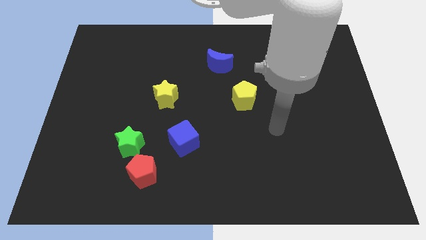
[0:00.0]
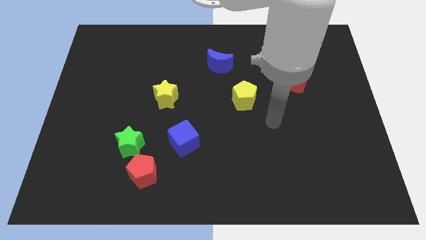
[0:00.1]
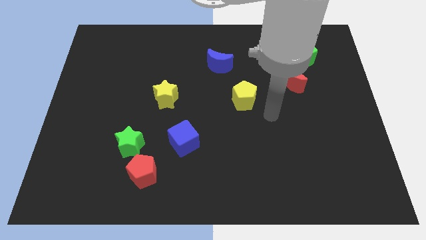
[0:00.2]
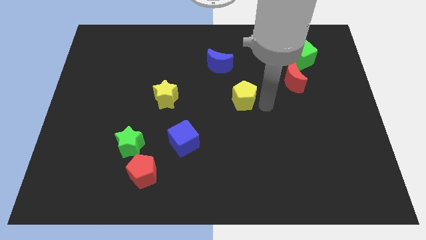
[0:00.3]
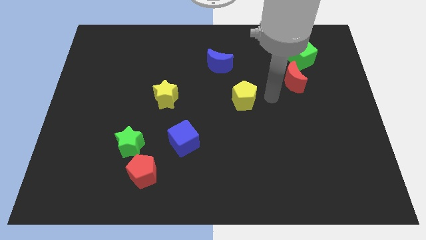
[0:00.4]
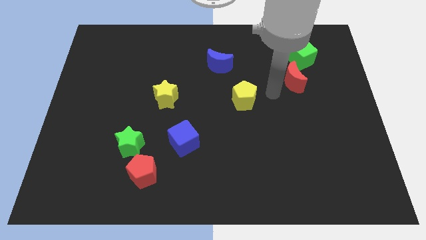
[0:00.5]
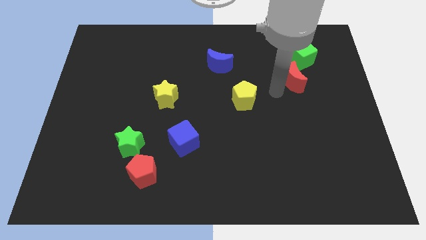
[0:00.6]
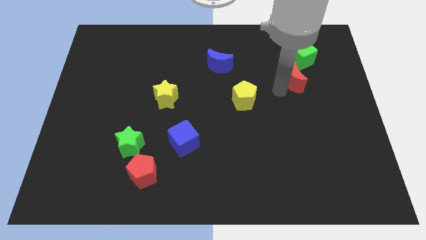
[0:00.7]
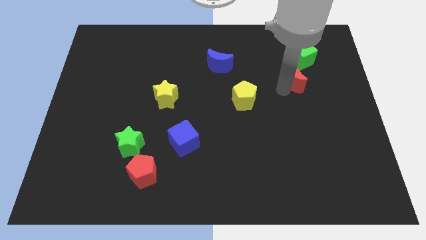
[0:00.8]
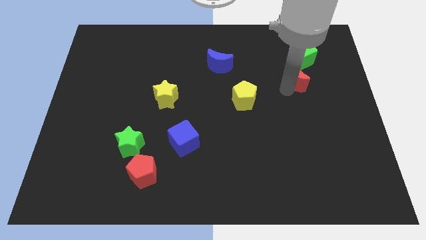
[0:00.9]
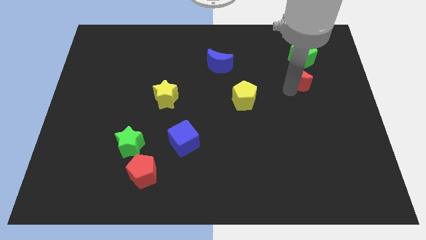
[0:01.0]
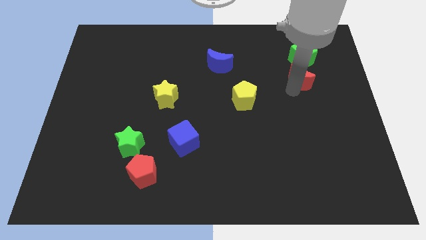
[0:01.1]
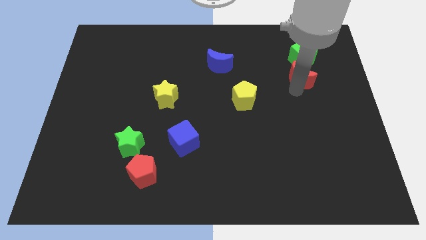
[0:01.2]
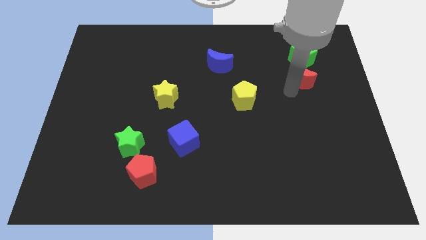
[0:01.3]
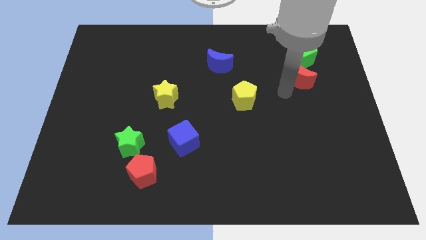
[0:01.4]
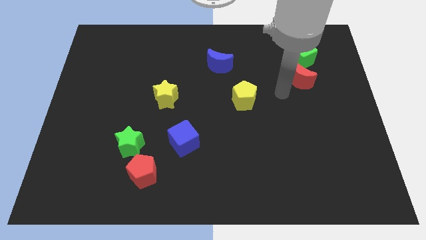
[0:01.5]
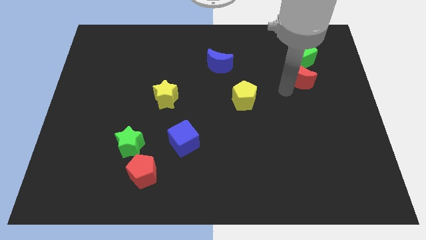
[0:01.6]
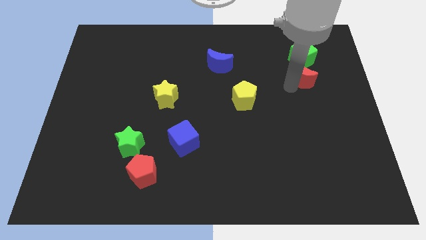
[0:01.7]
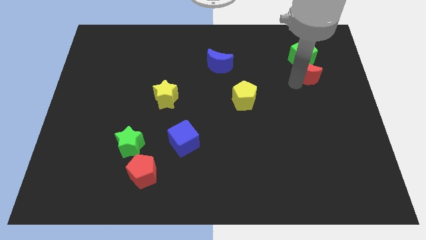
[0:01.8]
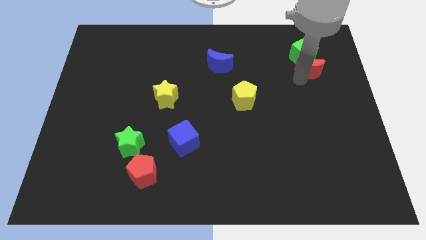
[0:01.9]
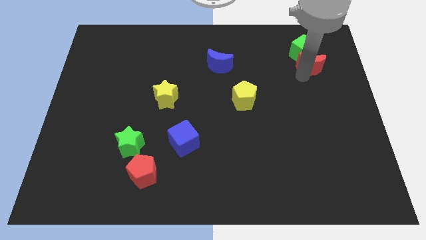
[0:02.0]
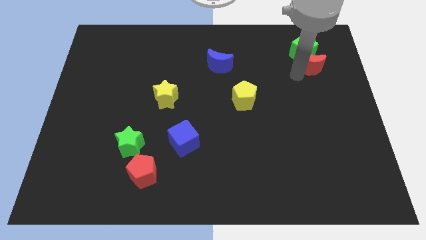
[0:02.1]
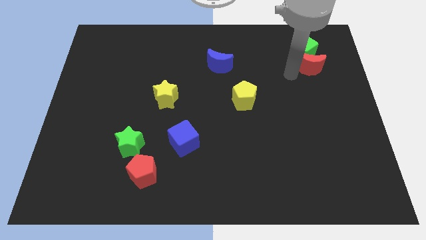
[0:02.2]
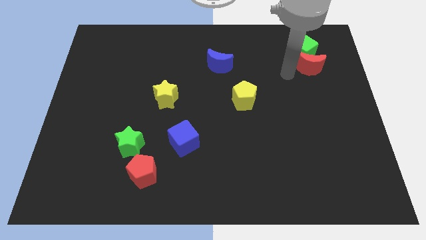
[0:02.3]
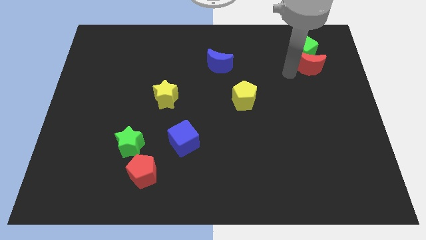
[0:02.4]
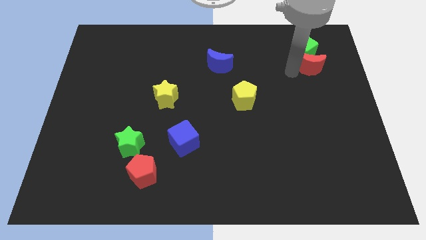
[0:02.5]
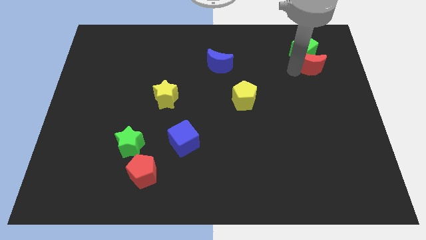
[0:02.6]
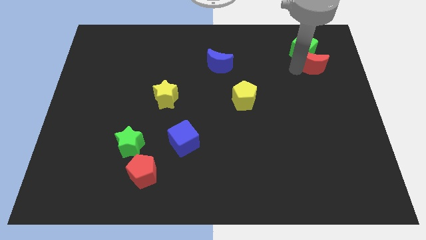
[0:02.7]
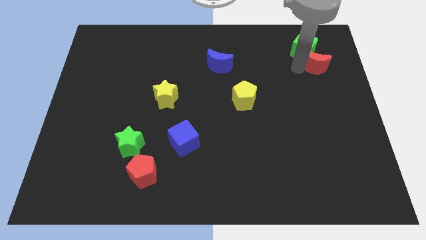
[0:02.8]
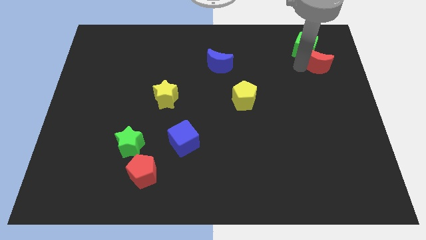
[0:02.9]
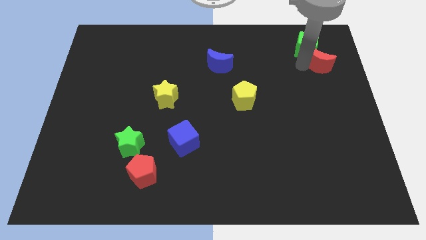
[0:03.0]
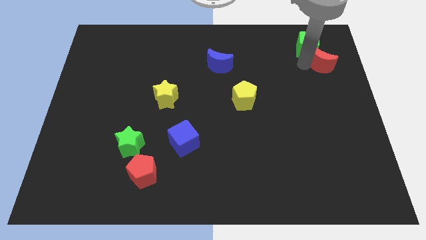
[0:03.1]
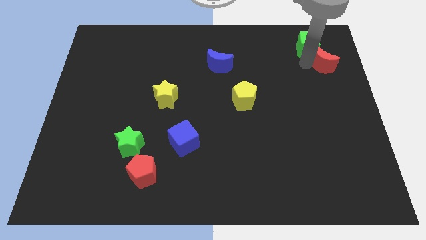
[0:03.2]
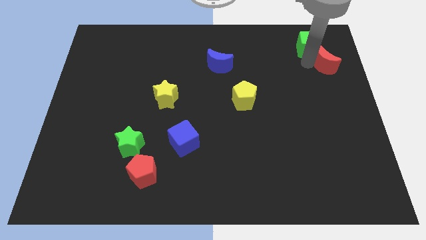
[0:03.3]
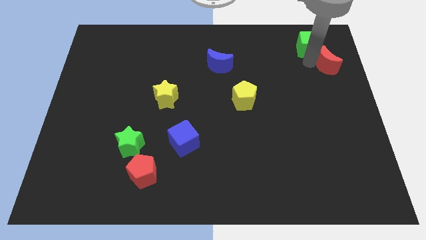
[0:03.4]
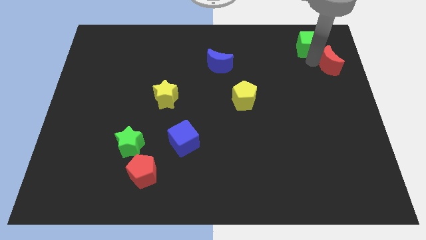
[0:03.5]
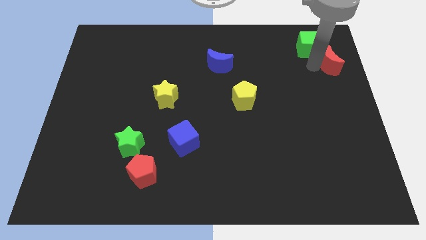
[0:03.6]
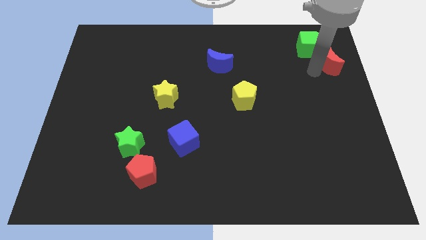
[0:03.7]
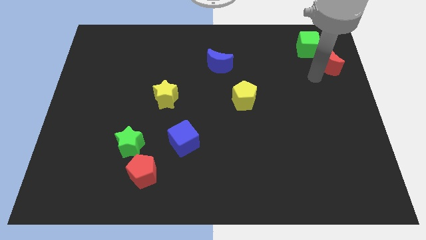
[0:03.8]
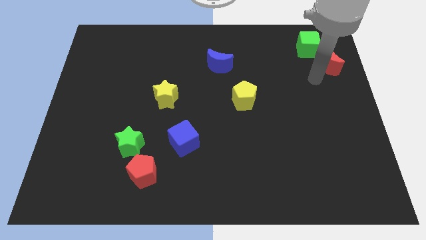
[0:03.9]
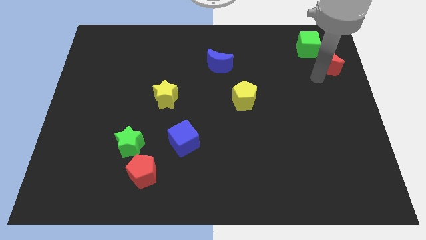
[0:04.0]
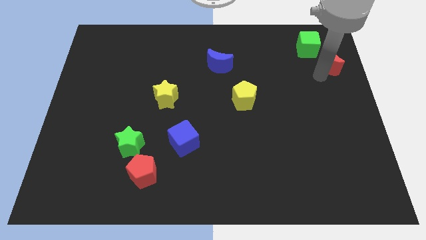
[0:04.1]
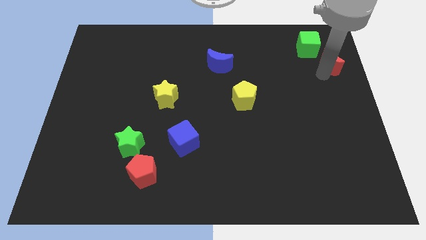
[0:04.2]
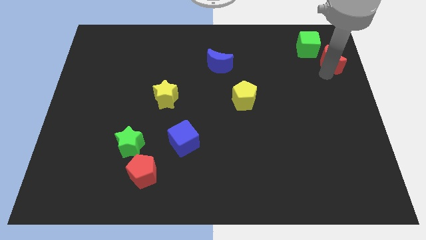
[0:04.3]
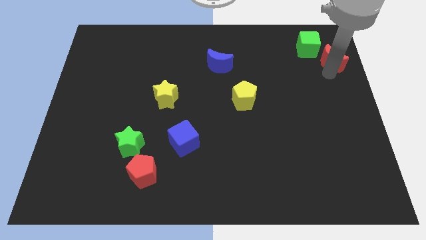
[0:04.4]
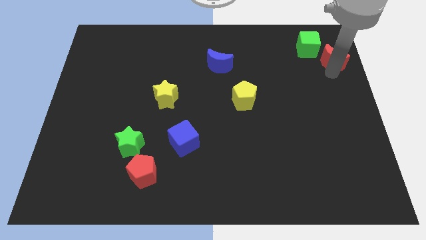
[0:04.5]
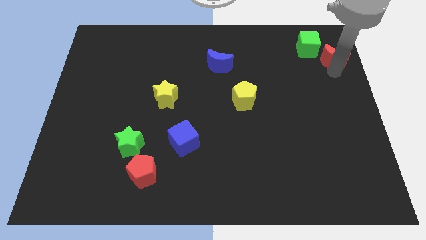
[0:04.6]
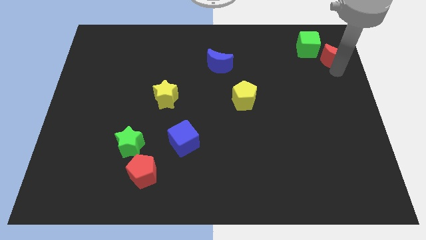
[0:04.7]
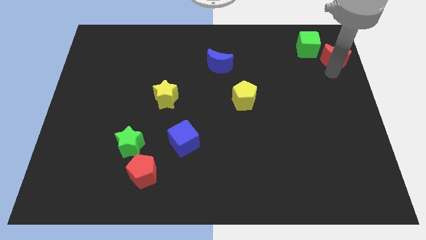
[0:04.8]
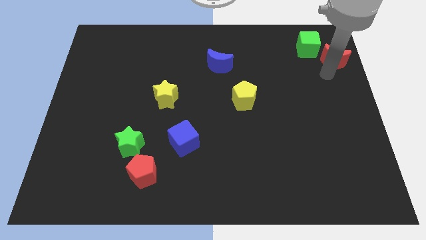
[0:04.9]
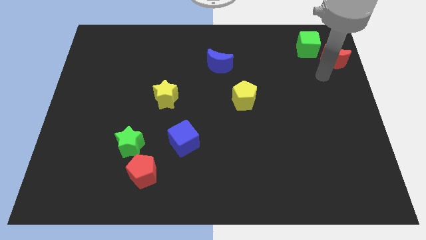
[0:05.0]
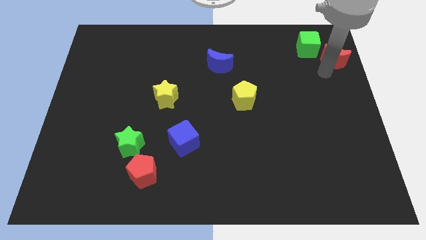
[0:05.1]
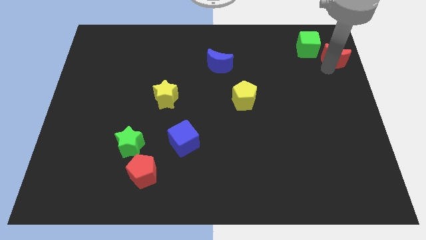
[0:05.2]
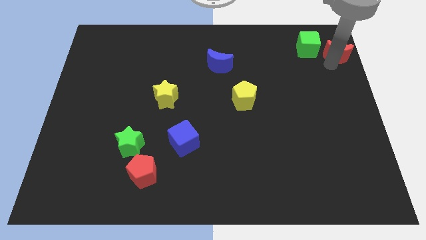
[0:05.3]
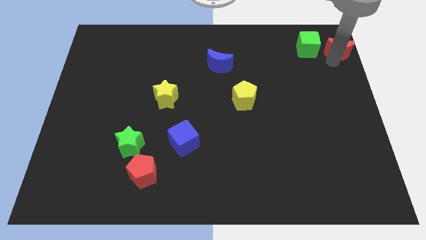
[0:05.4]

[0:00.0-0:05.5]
put the red moon to the top right of the board

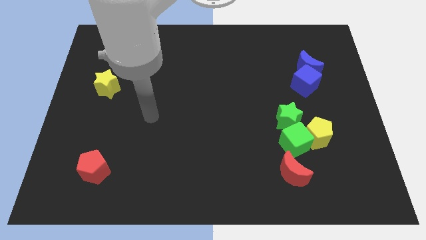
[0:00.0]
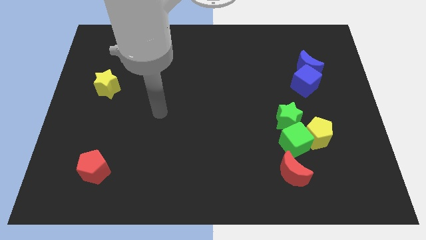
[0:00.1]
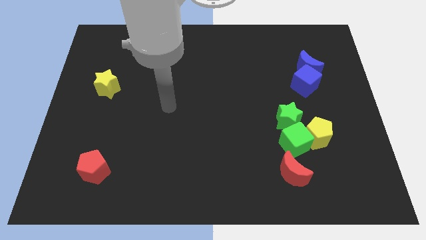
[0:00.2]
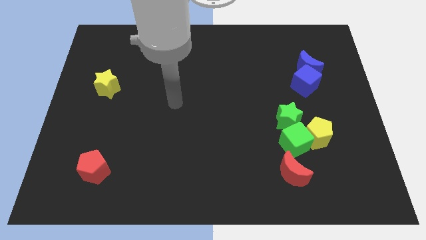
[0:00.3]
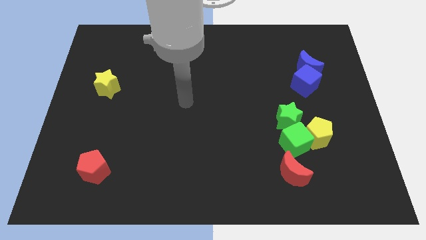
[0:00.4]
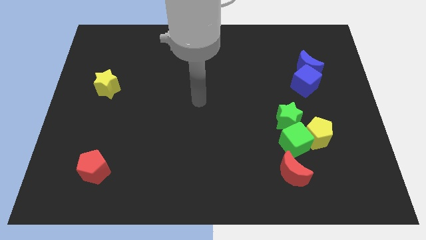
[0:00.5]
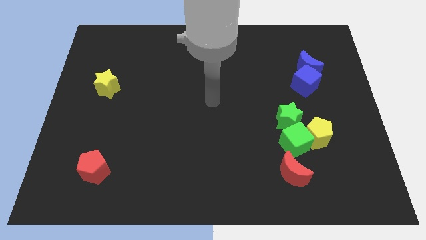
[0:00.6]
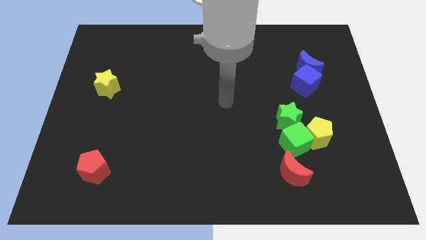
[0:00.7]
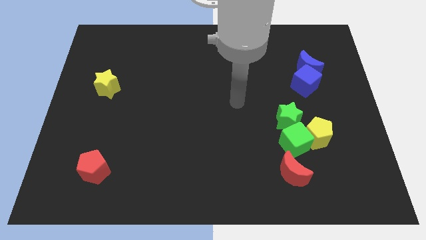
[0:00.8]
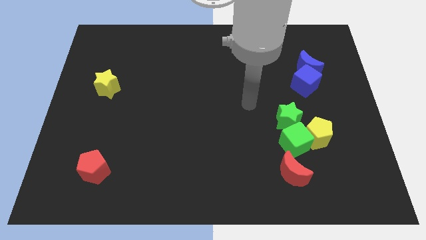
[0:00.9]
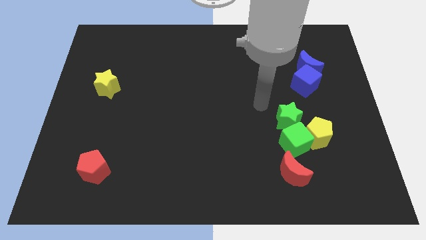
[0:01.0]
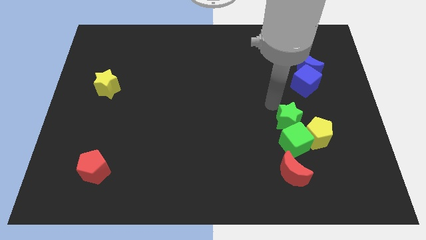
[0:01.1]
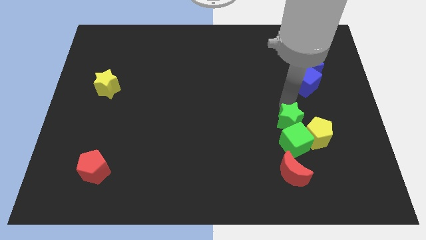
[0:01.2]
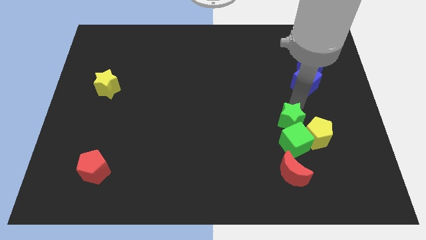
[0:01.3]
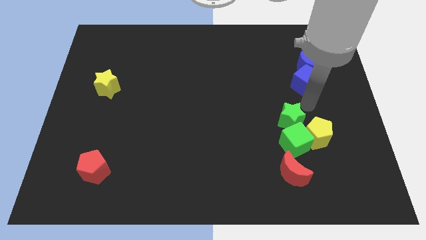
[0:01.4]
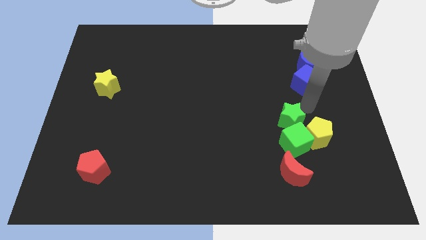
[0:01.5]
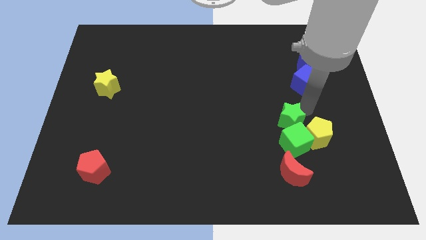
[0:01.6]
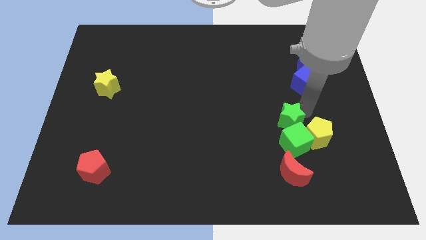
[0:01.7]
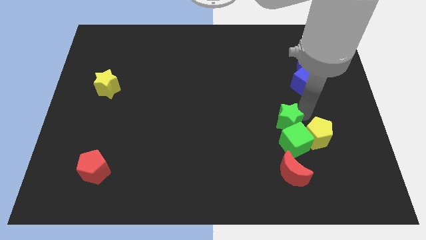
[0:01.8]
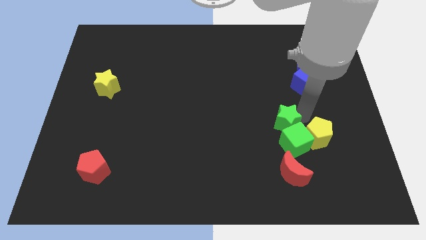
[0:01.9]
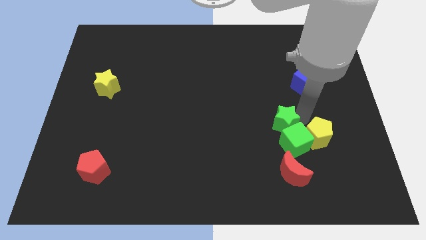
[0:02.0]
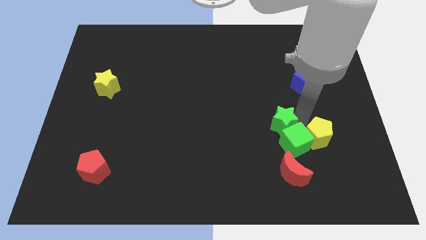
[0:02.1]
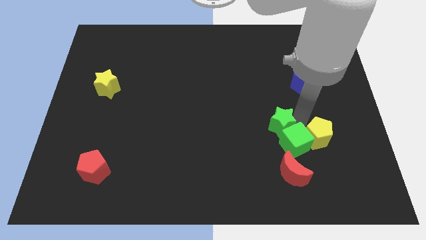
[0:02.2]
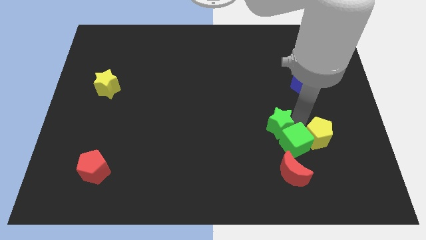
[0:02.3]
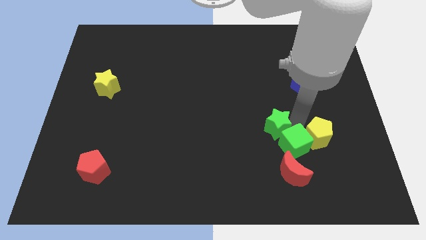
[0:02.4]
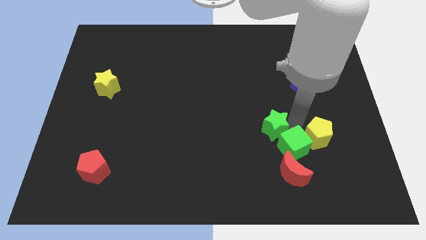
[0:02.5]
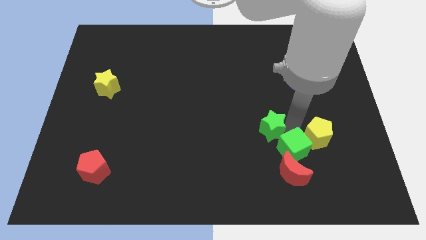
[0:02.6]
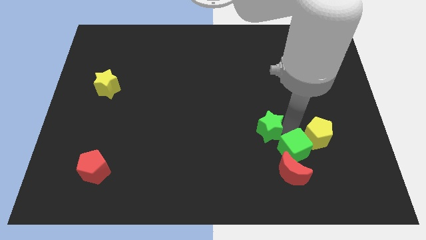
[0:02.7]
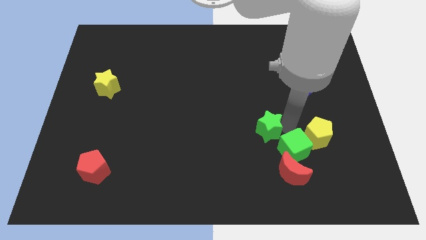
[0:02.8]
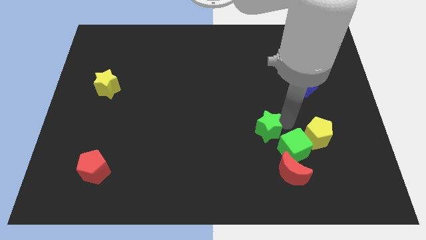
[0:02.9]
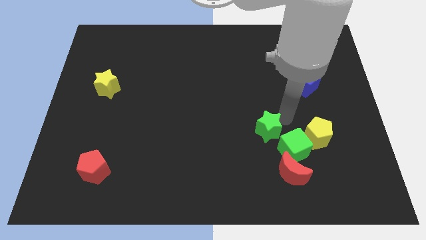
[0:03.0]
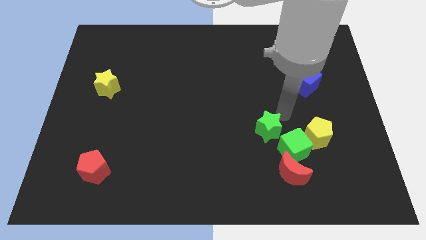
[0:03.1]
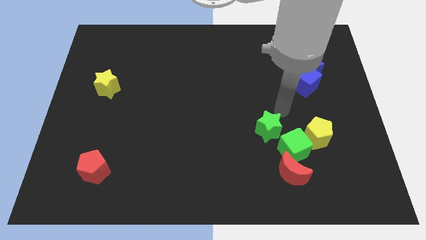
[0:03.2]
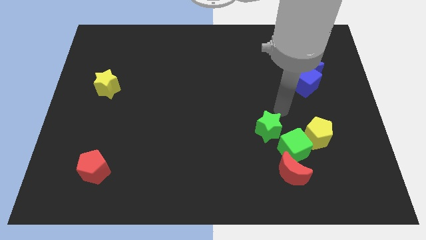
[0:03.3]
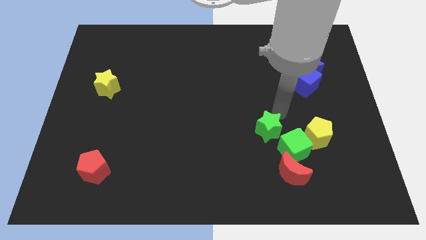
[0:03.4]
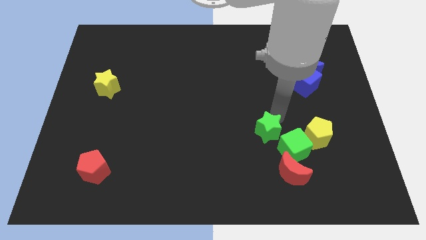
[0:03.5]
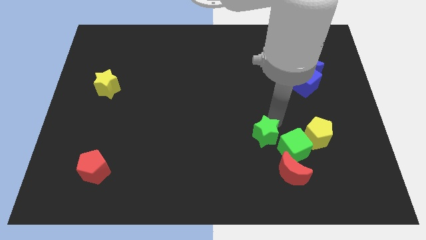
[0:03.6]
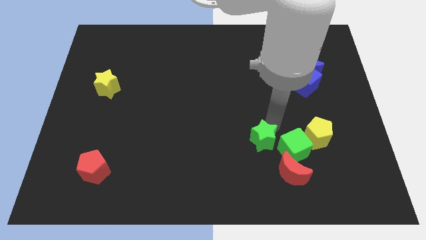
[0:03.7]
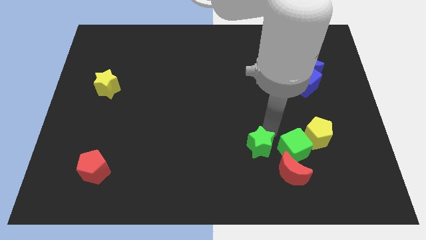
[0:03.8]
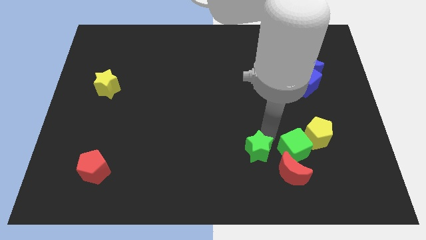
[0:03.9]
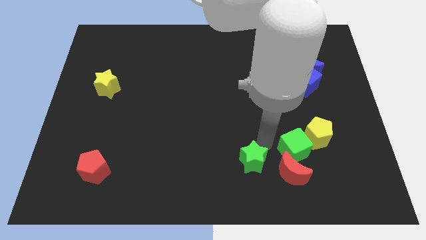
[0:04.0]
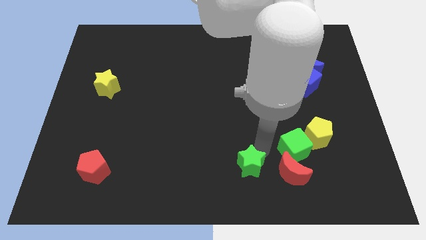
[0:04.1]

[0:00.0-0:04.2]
move the green star to the bottom side
